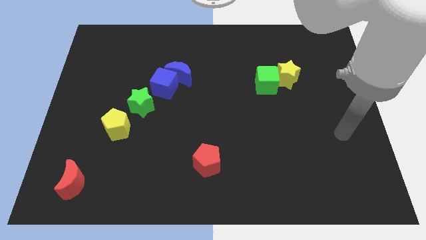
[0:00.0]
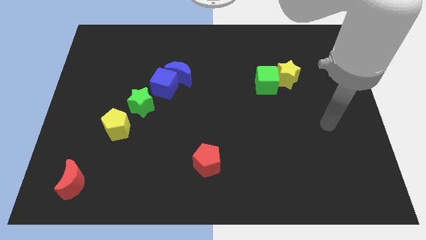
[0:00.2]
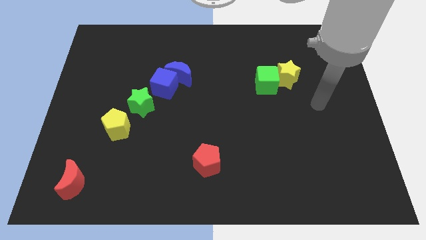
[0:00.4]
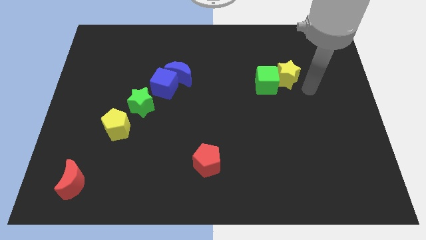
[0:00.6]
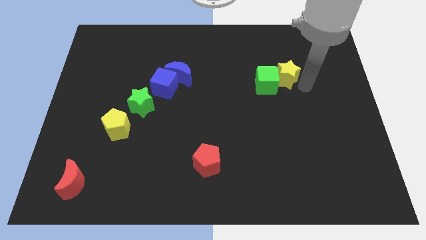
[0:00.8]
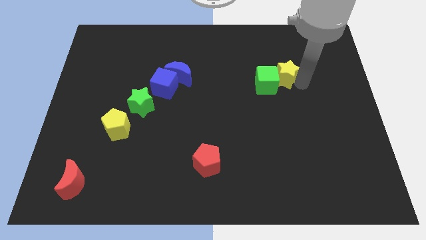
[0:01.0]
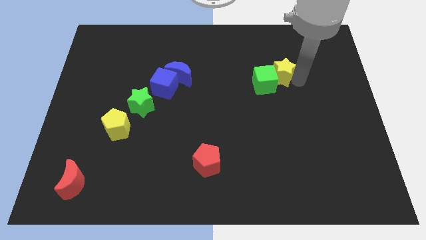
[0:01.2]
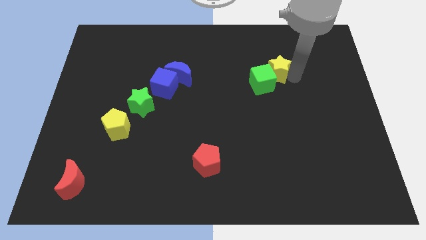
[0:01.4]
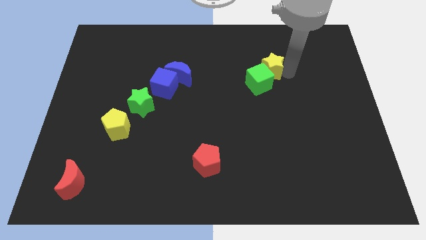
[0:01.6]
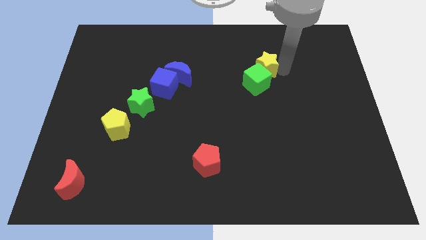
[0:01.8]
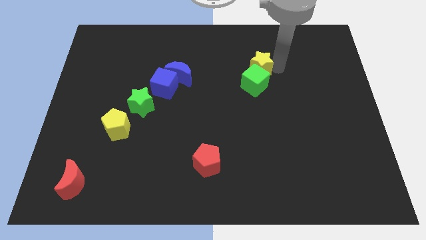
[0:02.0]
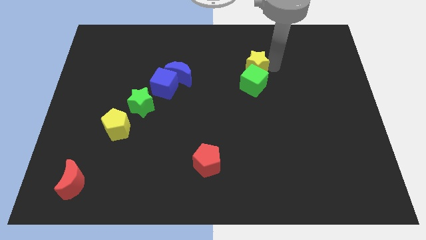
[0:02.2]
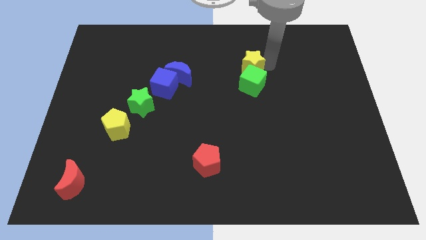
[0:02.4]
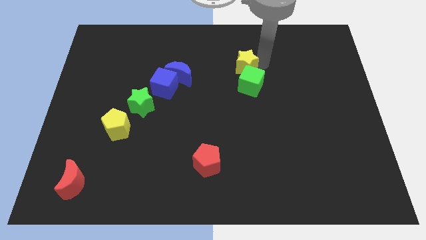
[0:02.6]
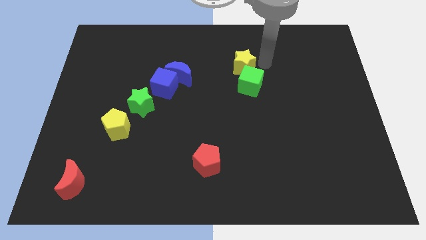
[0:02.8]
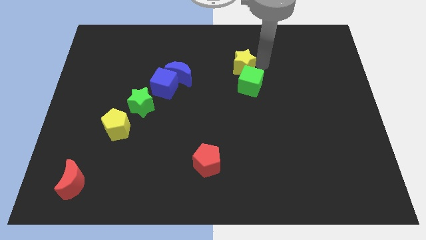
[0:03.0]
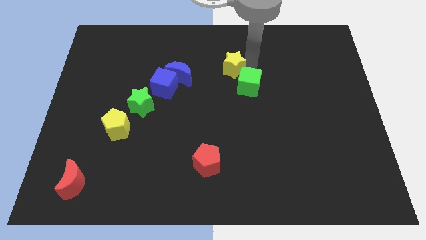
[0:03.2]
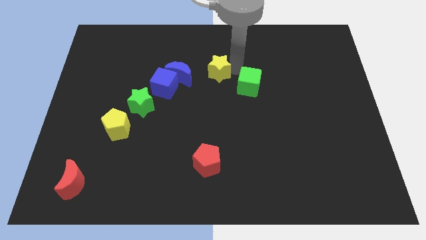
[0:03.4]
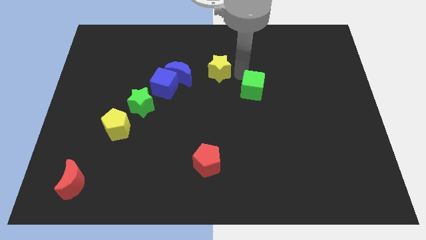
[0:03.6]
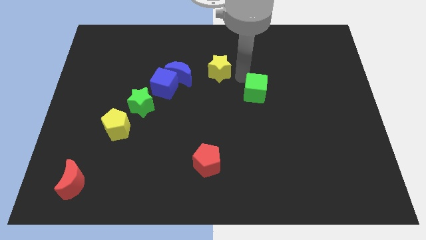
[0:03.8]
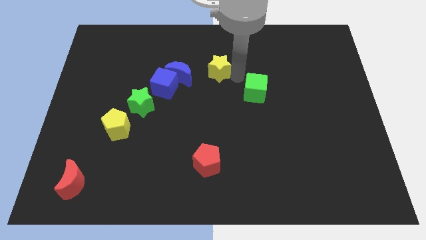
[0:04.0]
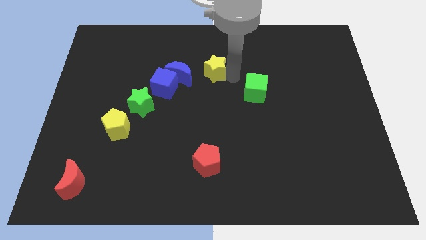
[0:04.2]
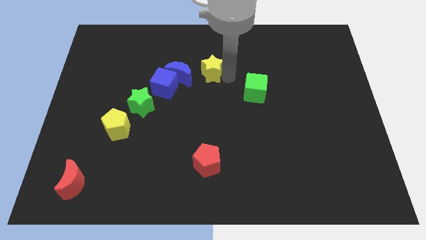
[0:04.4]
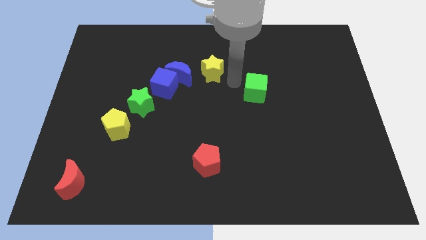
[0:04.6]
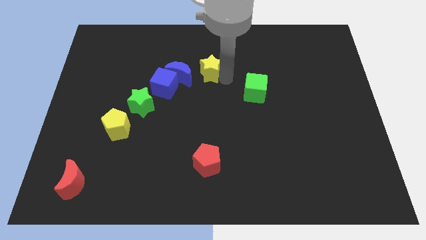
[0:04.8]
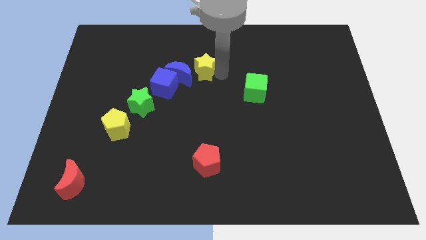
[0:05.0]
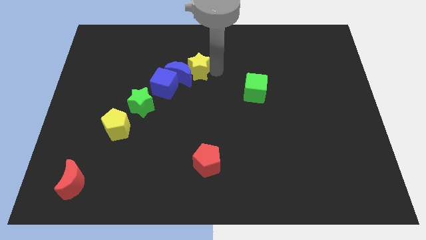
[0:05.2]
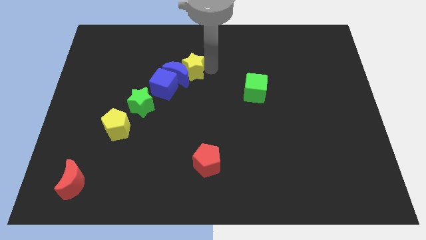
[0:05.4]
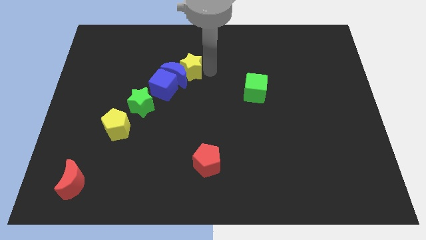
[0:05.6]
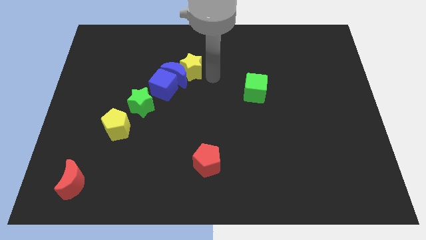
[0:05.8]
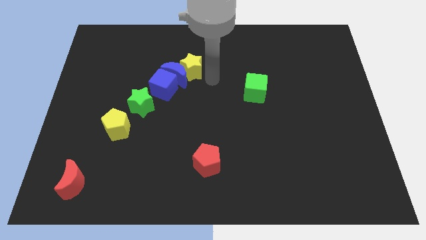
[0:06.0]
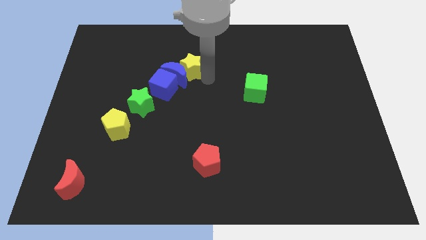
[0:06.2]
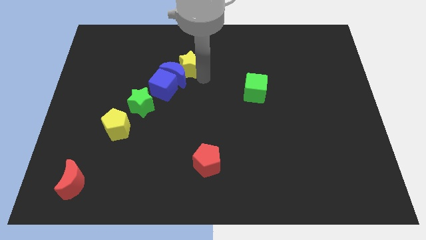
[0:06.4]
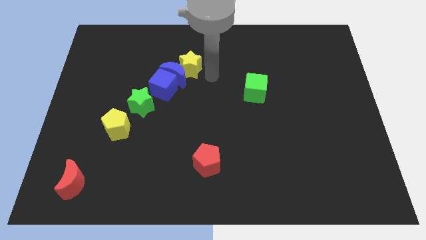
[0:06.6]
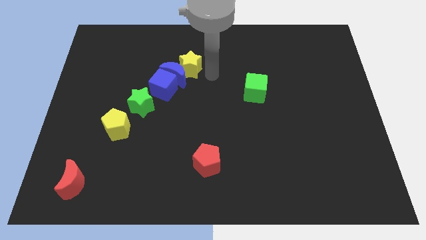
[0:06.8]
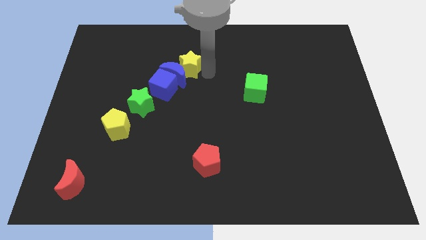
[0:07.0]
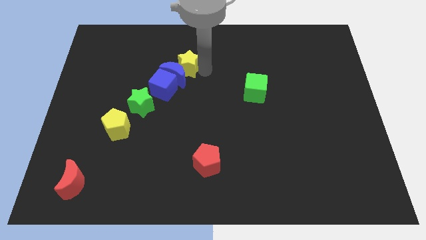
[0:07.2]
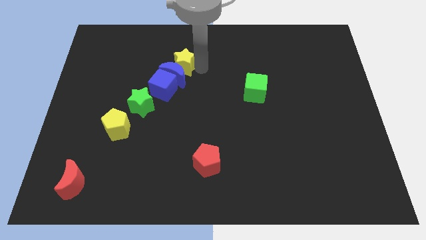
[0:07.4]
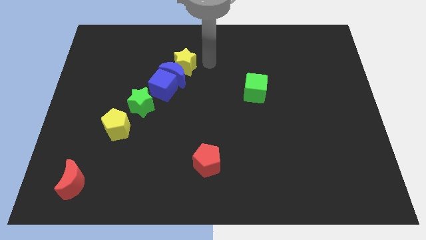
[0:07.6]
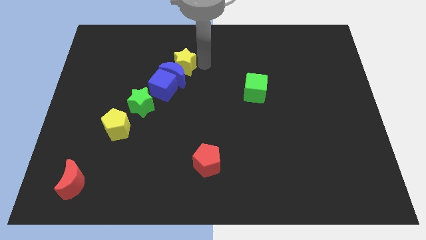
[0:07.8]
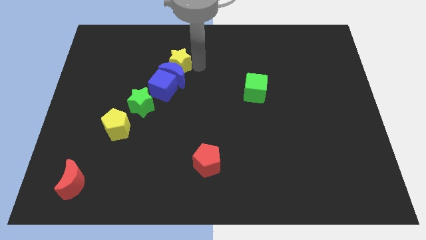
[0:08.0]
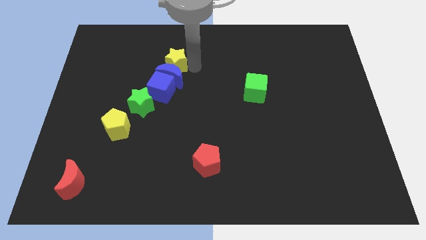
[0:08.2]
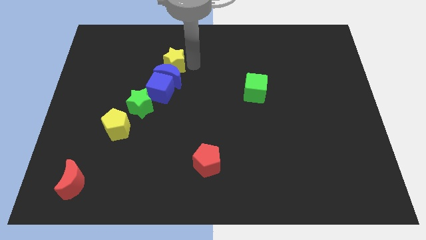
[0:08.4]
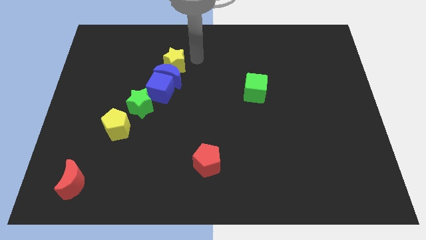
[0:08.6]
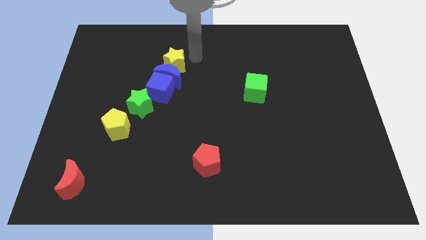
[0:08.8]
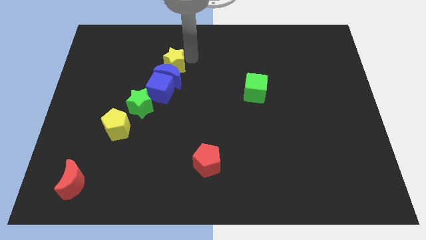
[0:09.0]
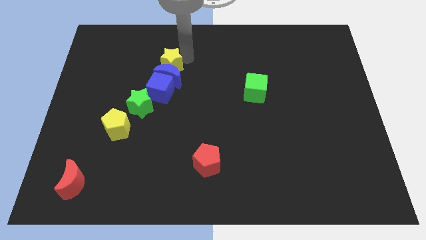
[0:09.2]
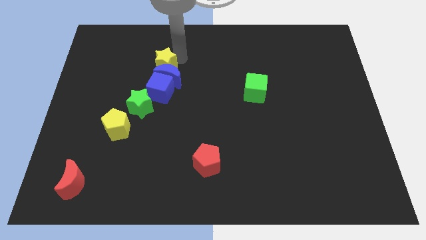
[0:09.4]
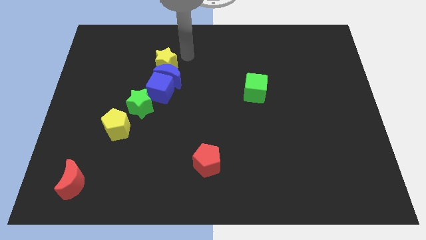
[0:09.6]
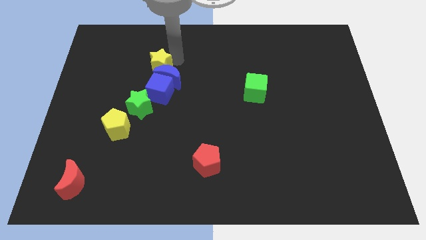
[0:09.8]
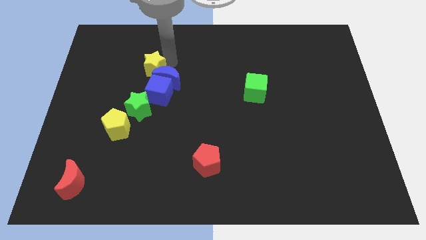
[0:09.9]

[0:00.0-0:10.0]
slide the yellow star diagonally up and to the left of the blue cube

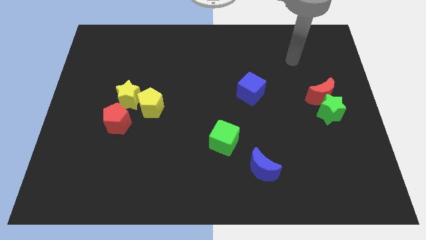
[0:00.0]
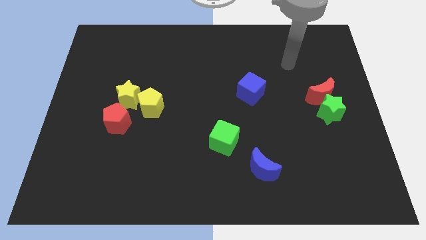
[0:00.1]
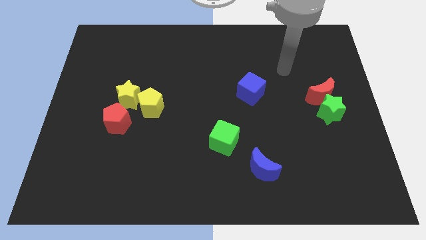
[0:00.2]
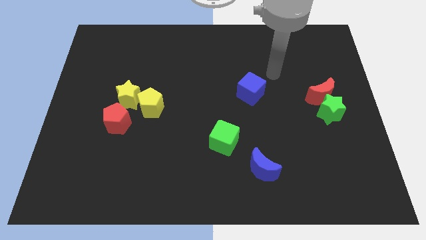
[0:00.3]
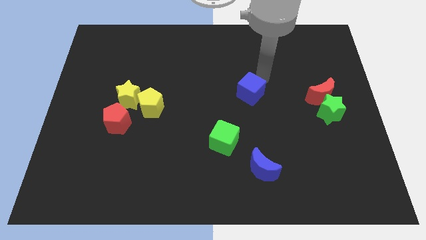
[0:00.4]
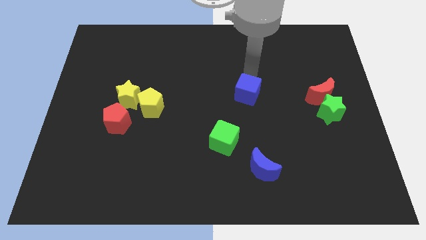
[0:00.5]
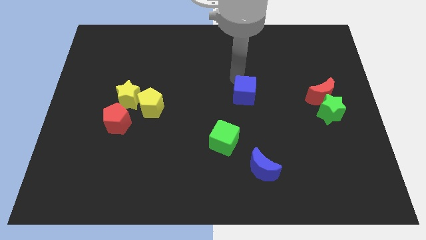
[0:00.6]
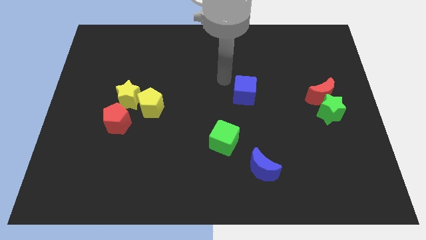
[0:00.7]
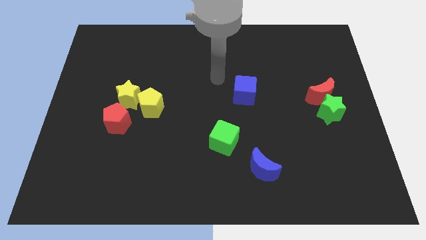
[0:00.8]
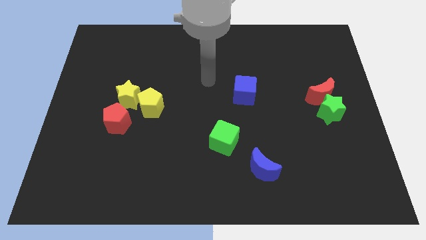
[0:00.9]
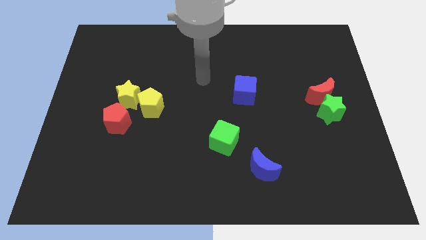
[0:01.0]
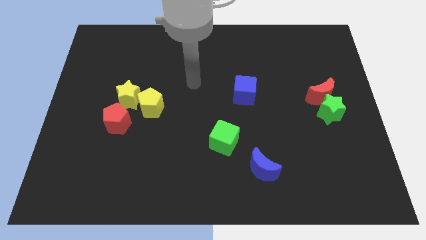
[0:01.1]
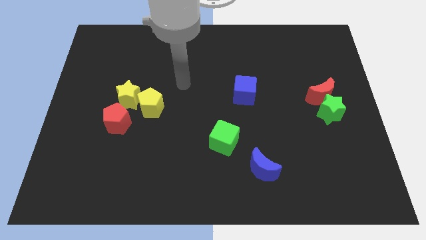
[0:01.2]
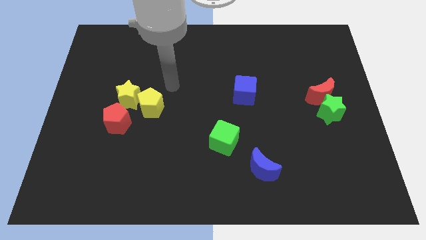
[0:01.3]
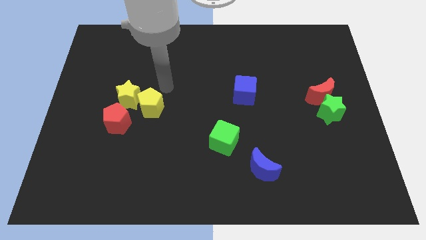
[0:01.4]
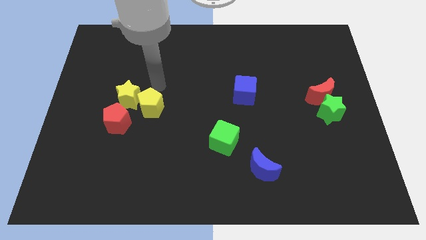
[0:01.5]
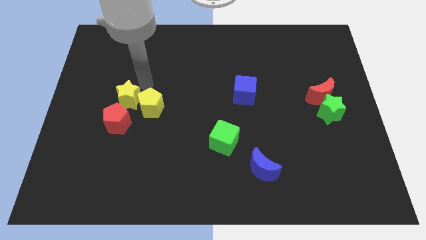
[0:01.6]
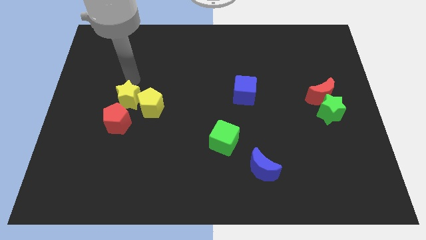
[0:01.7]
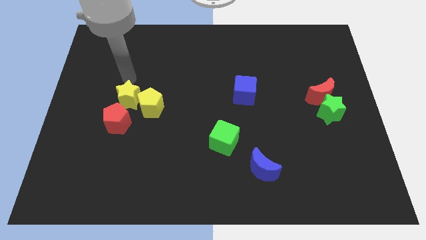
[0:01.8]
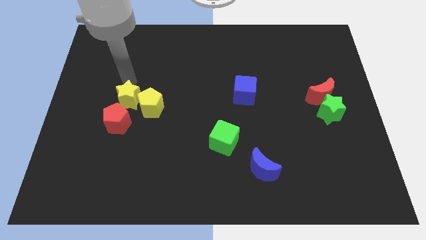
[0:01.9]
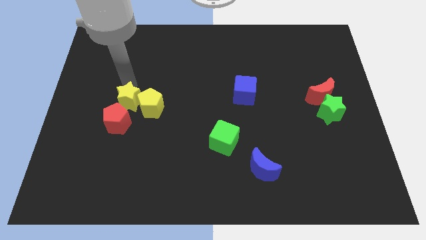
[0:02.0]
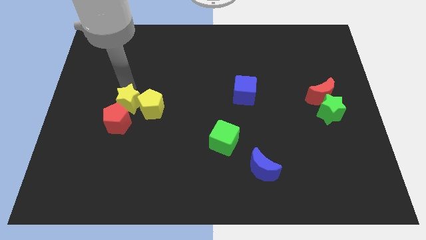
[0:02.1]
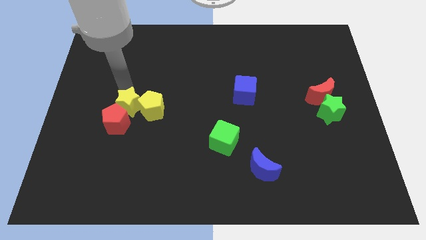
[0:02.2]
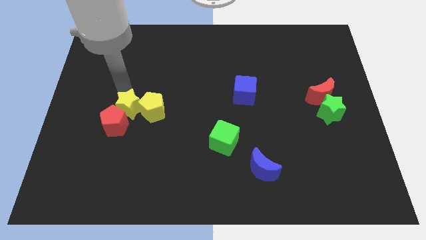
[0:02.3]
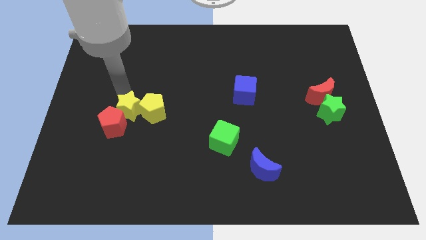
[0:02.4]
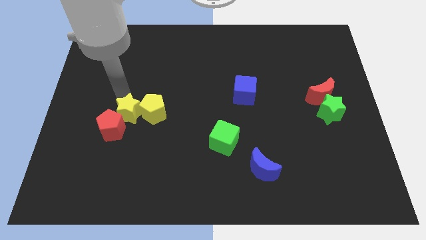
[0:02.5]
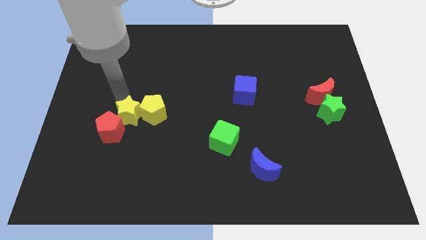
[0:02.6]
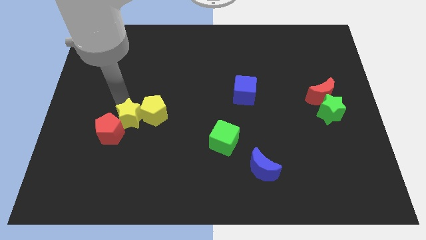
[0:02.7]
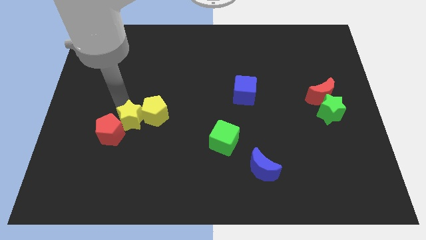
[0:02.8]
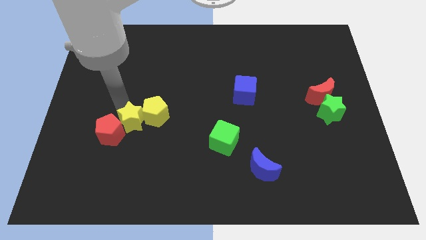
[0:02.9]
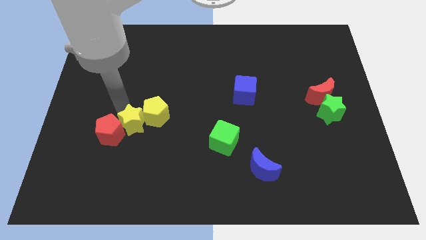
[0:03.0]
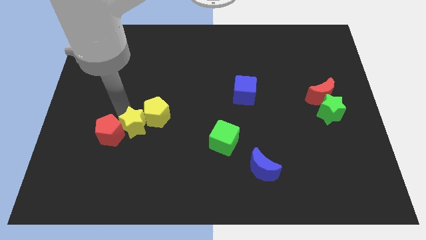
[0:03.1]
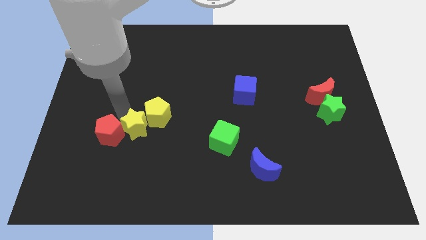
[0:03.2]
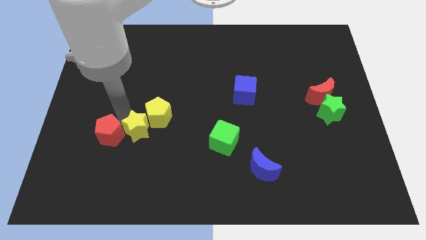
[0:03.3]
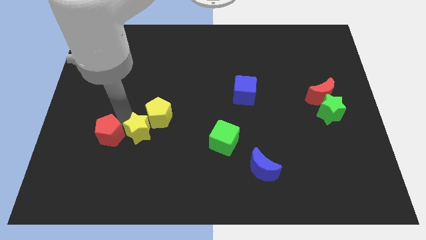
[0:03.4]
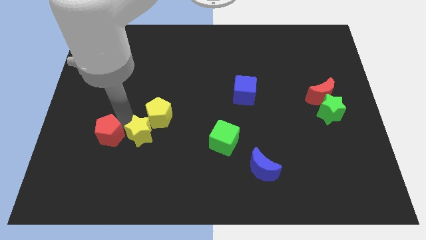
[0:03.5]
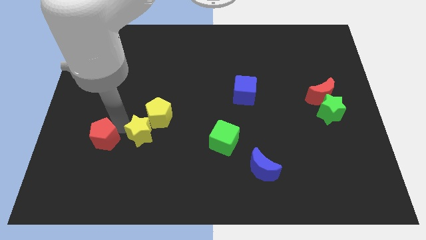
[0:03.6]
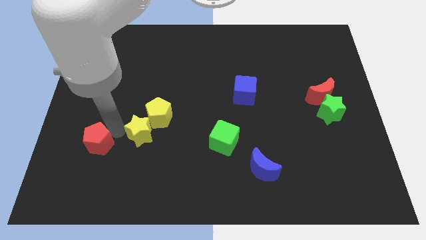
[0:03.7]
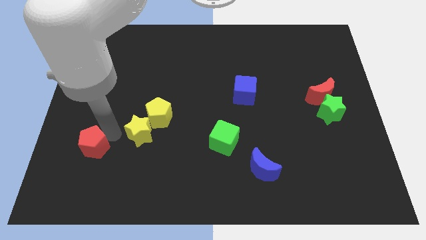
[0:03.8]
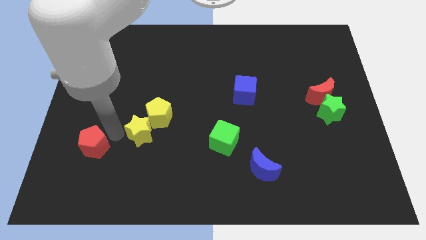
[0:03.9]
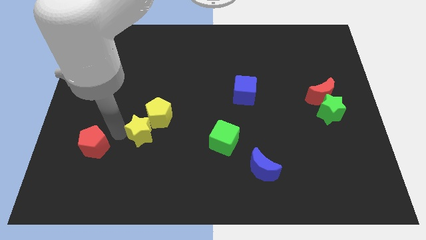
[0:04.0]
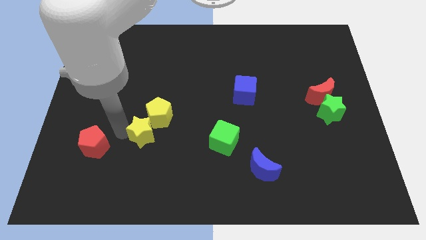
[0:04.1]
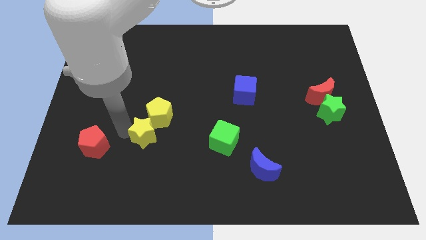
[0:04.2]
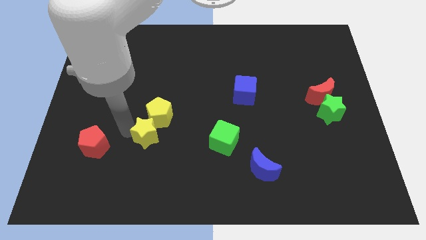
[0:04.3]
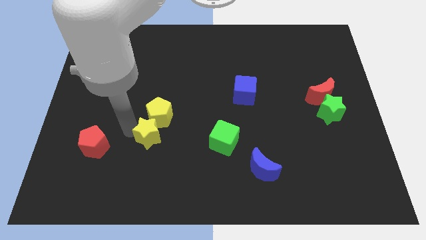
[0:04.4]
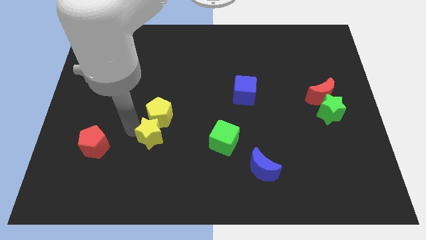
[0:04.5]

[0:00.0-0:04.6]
push the yellow star left of the green cube
